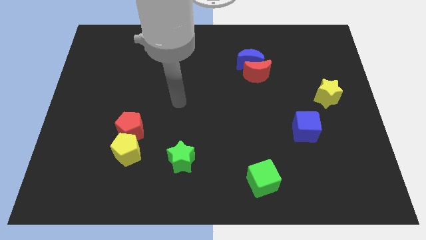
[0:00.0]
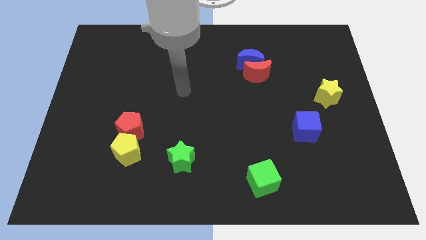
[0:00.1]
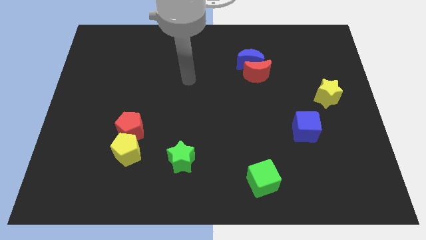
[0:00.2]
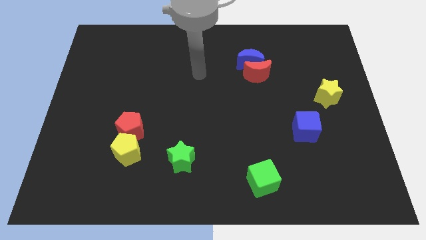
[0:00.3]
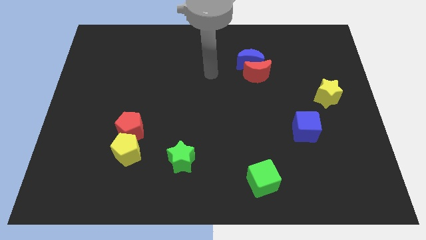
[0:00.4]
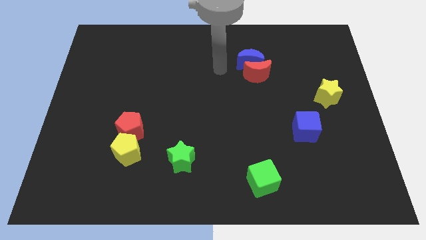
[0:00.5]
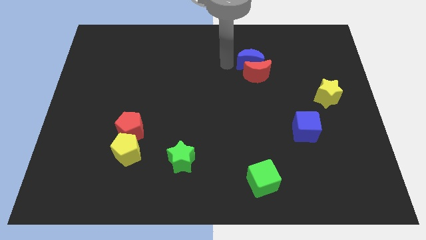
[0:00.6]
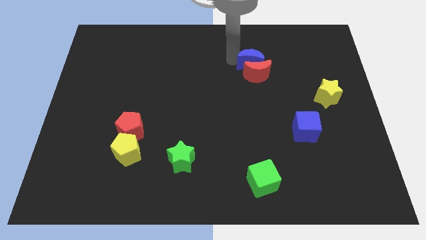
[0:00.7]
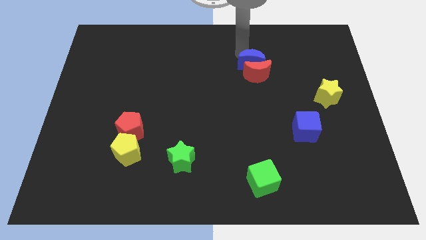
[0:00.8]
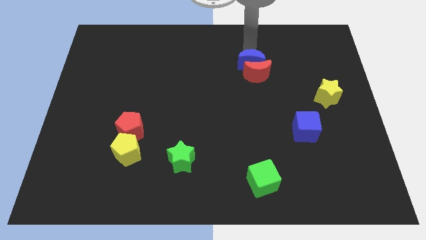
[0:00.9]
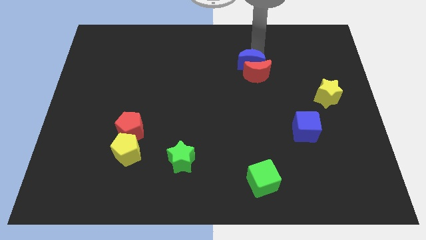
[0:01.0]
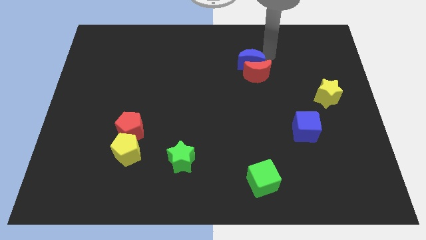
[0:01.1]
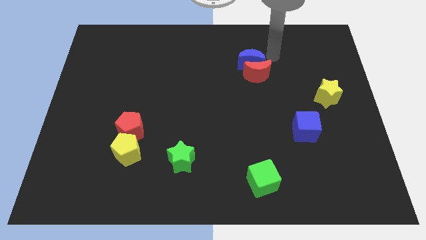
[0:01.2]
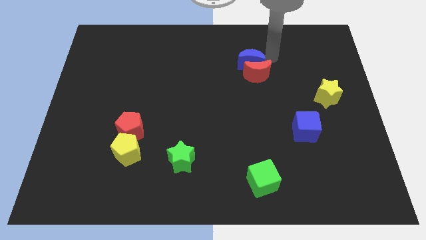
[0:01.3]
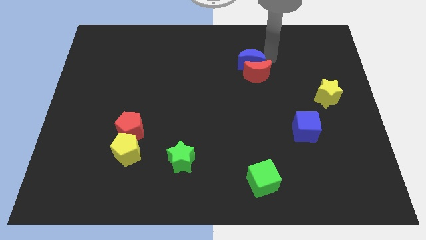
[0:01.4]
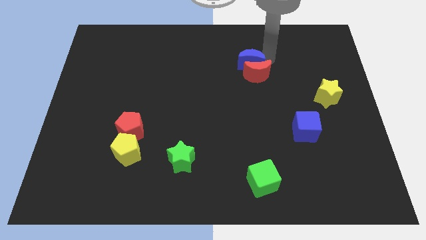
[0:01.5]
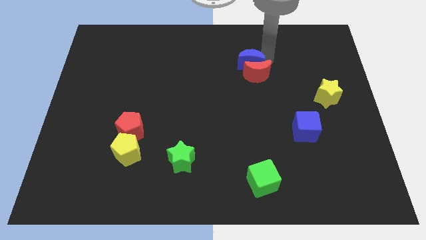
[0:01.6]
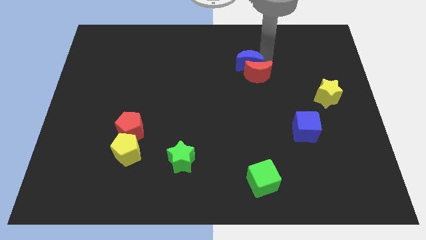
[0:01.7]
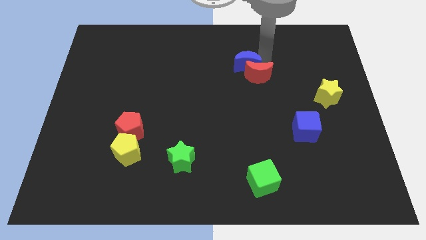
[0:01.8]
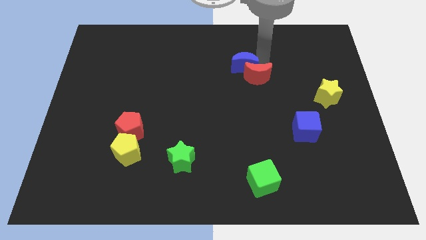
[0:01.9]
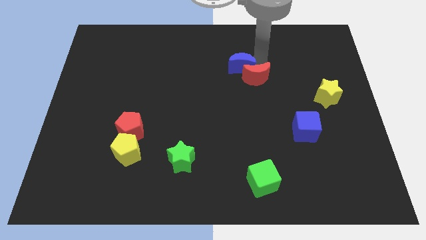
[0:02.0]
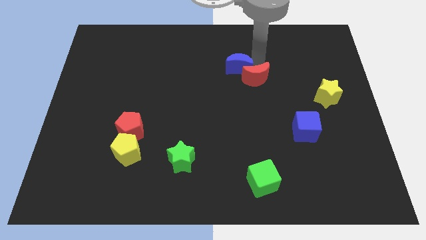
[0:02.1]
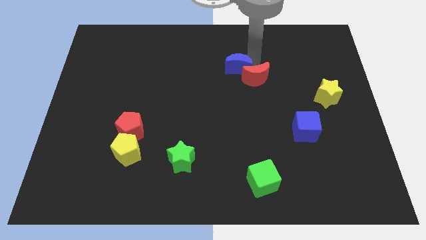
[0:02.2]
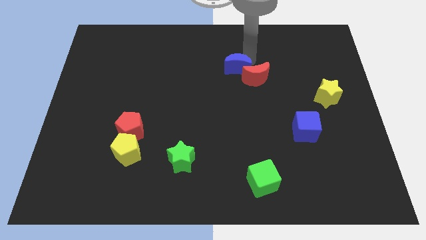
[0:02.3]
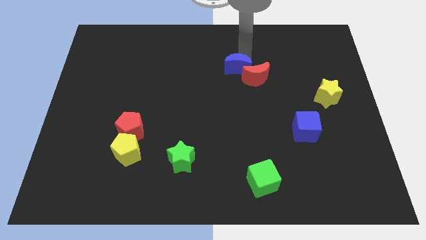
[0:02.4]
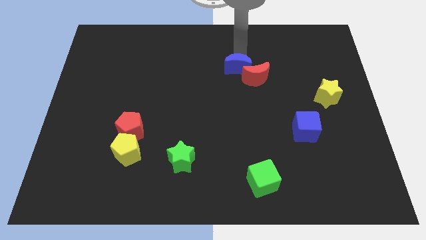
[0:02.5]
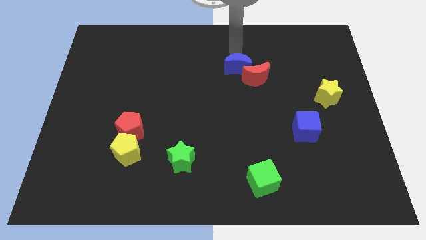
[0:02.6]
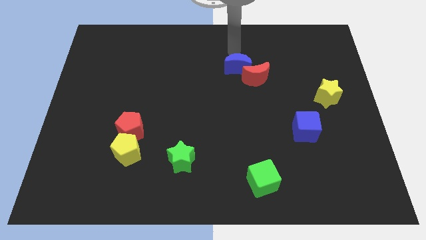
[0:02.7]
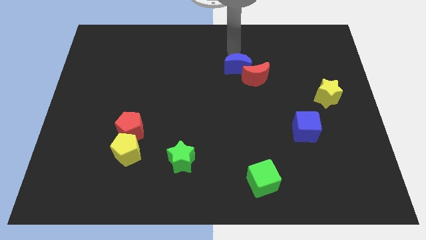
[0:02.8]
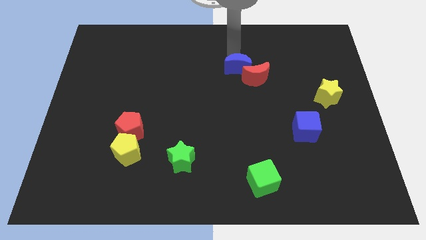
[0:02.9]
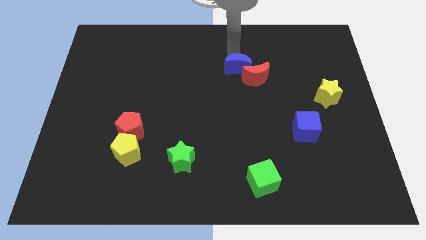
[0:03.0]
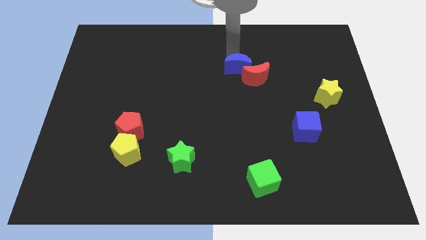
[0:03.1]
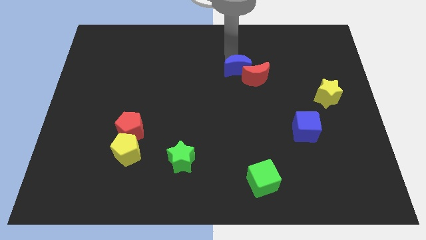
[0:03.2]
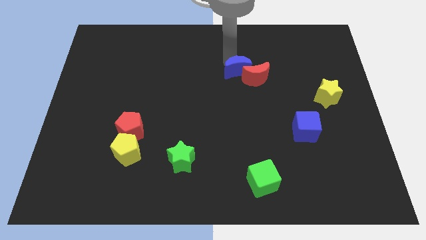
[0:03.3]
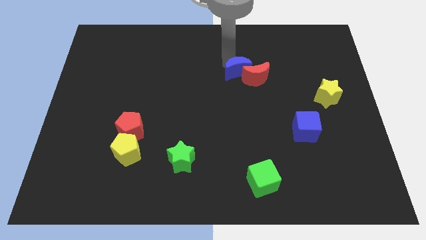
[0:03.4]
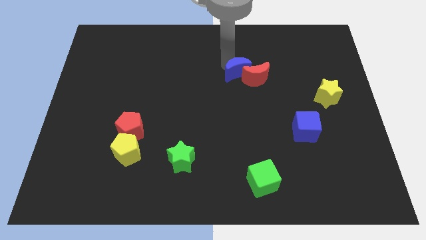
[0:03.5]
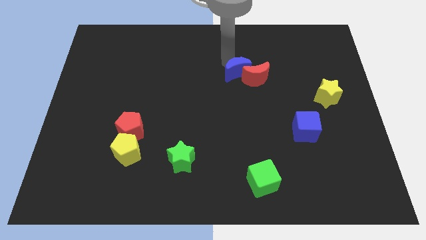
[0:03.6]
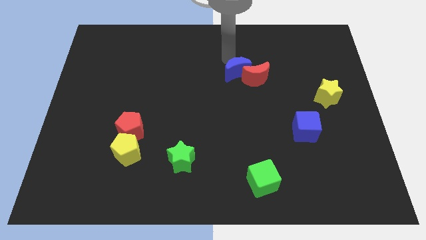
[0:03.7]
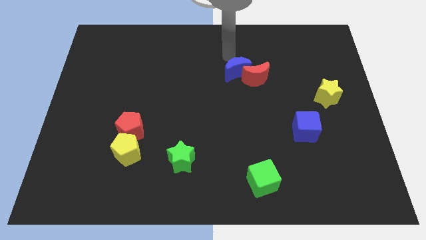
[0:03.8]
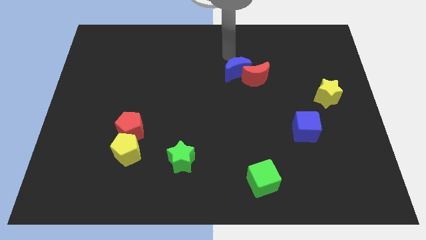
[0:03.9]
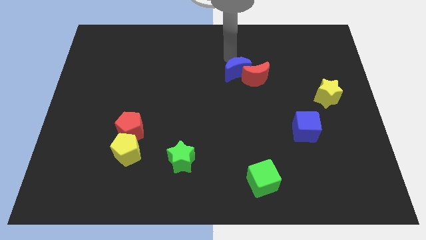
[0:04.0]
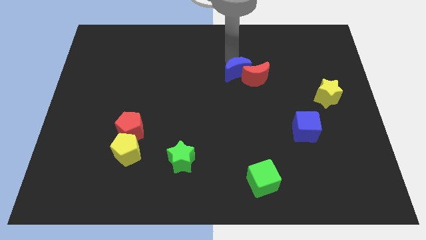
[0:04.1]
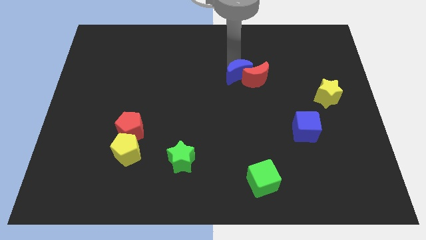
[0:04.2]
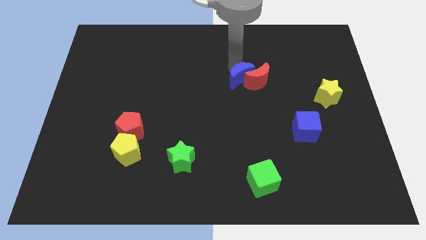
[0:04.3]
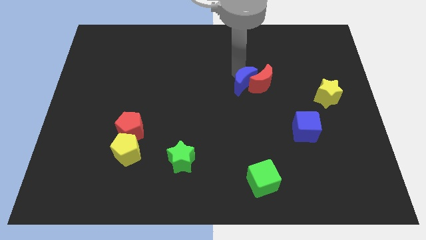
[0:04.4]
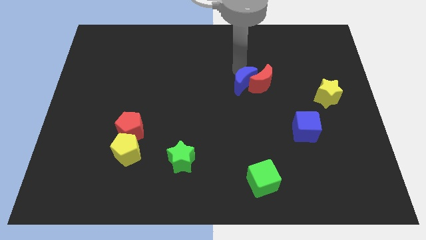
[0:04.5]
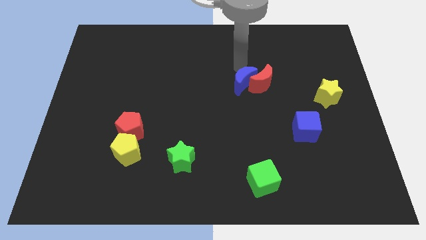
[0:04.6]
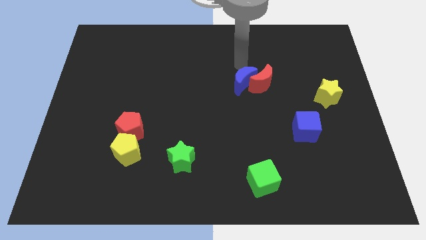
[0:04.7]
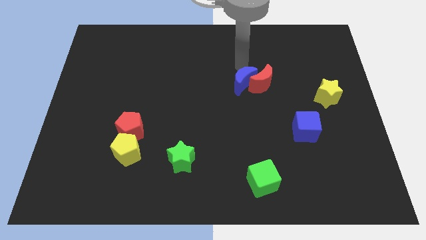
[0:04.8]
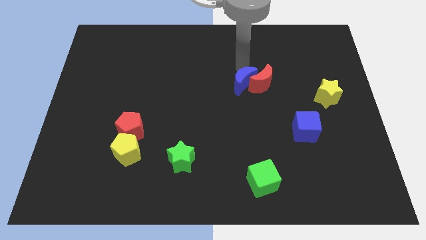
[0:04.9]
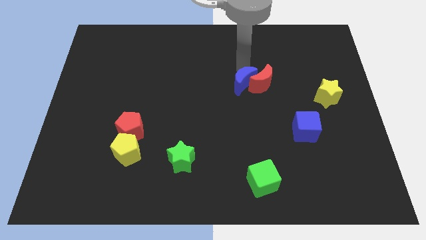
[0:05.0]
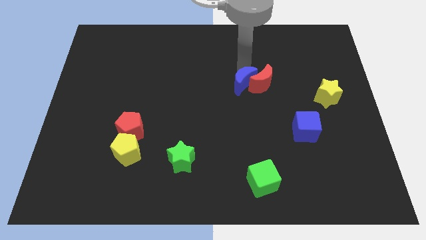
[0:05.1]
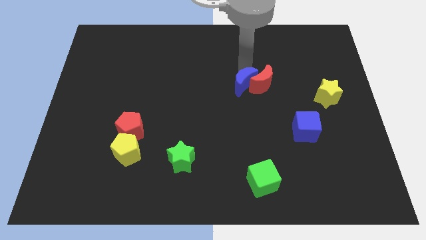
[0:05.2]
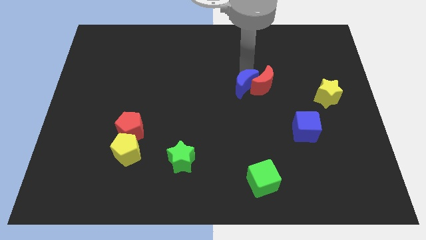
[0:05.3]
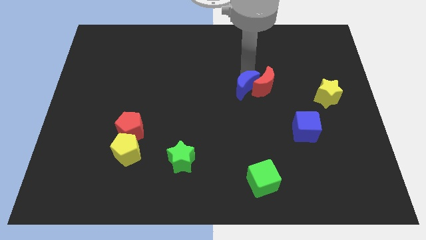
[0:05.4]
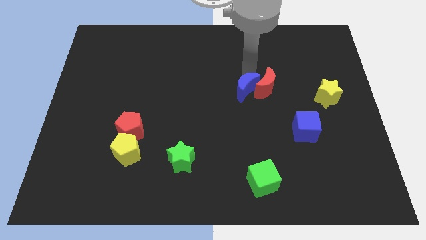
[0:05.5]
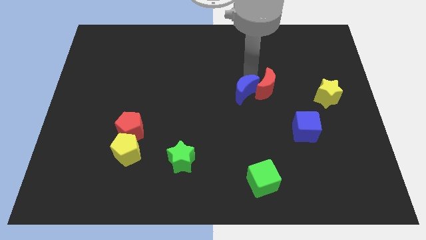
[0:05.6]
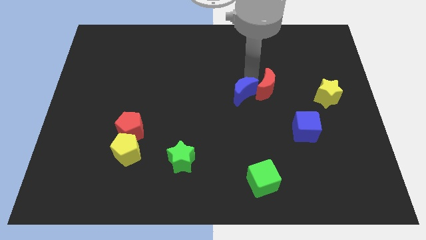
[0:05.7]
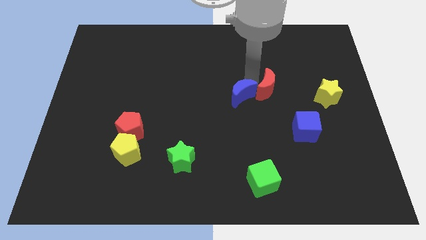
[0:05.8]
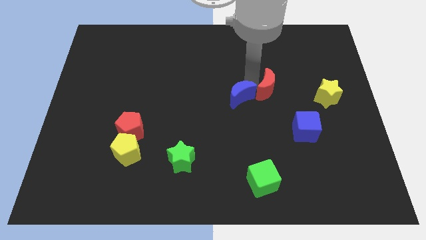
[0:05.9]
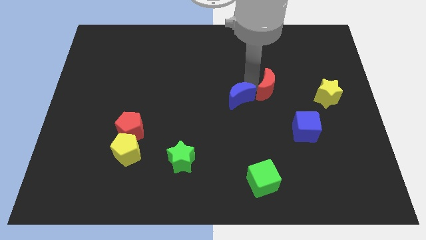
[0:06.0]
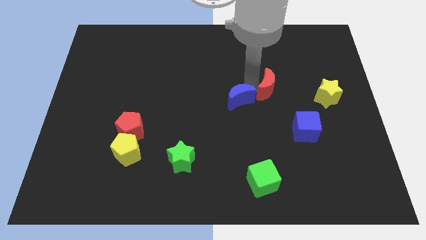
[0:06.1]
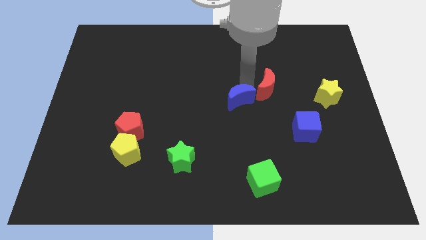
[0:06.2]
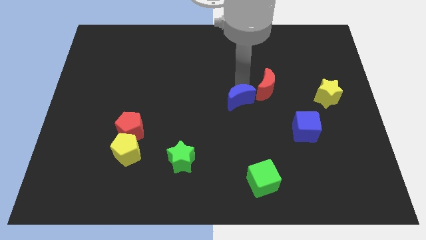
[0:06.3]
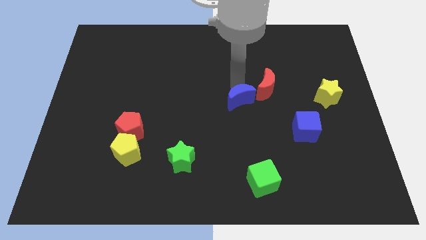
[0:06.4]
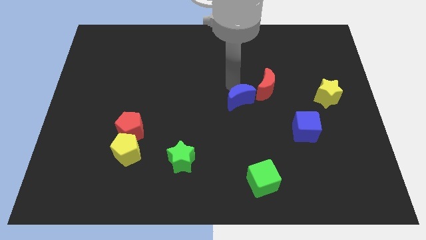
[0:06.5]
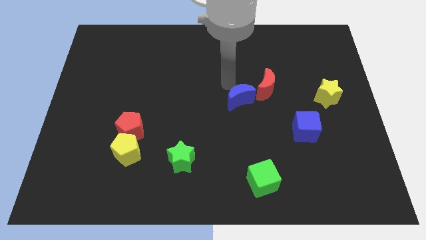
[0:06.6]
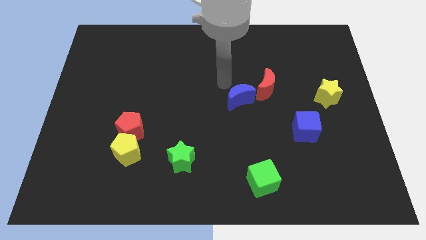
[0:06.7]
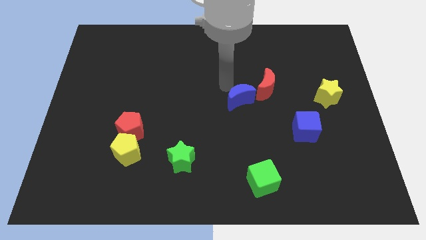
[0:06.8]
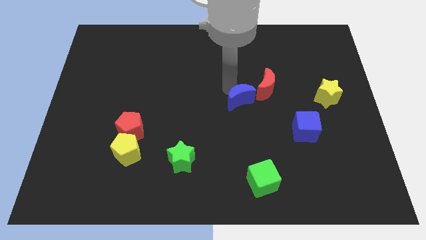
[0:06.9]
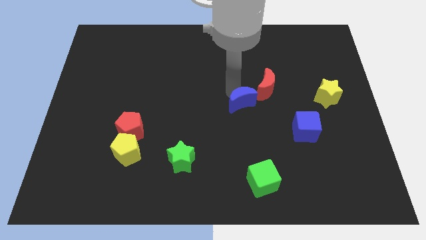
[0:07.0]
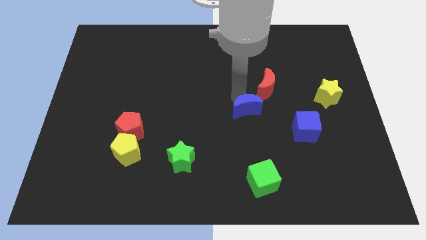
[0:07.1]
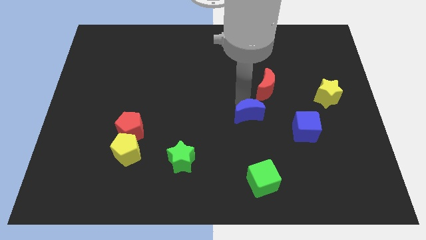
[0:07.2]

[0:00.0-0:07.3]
slide the blue moon left of the blue cube

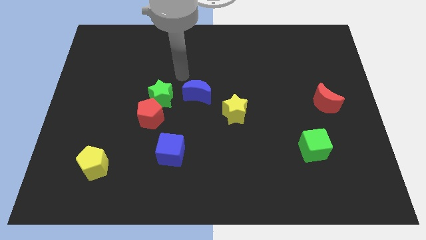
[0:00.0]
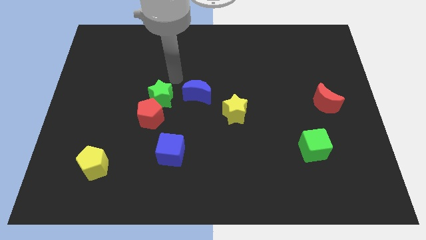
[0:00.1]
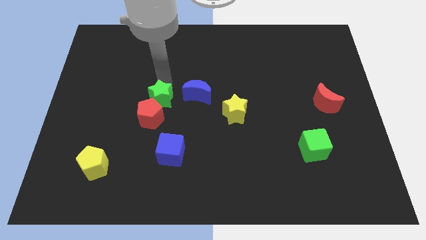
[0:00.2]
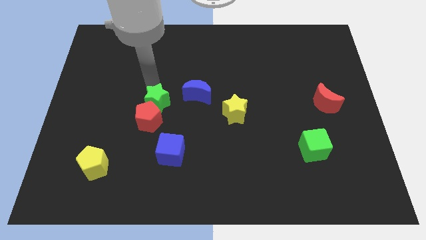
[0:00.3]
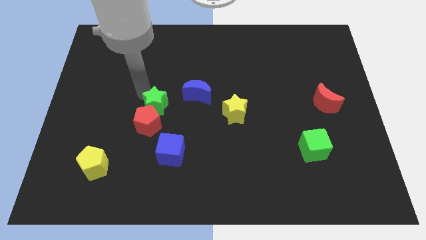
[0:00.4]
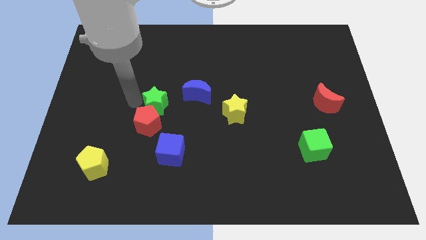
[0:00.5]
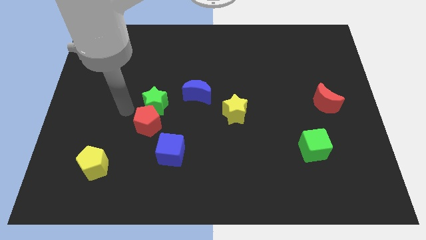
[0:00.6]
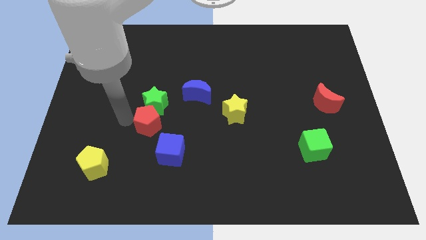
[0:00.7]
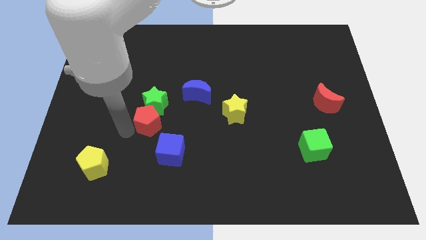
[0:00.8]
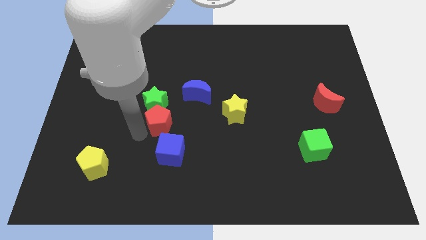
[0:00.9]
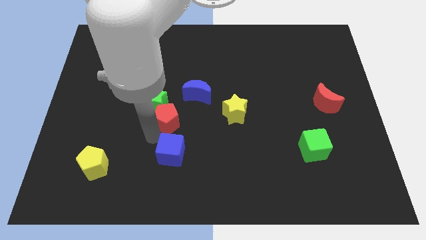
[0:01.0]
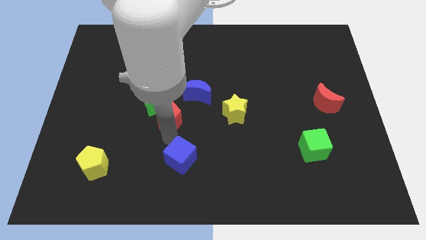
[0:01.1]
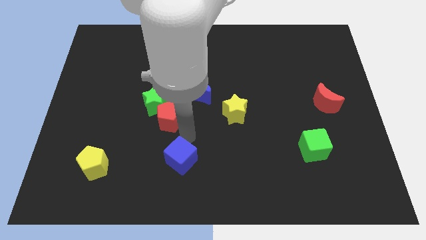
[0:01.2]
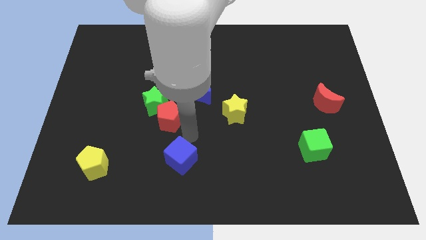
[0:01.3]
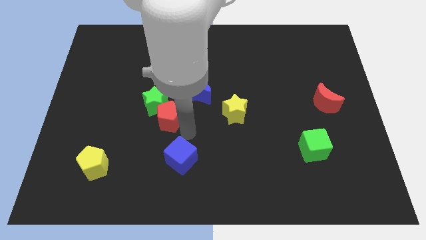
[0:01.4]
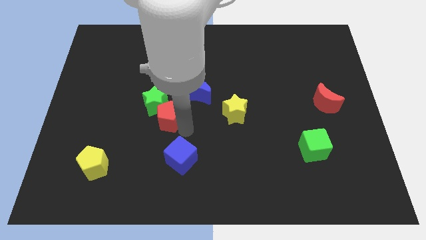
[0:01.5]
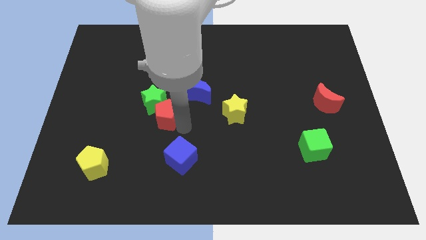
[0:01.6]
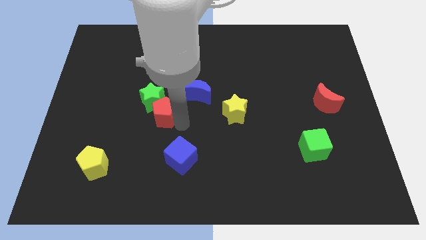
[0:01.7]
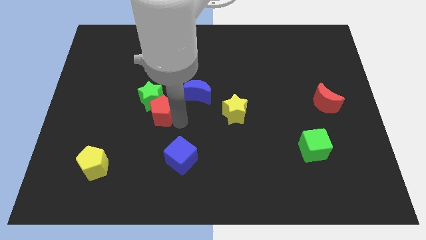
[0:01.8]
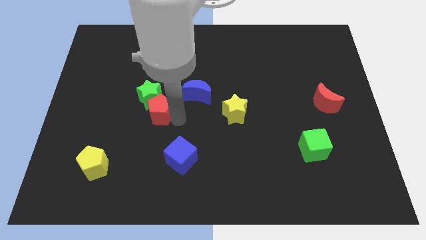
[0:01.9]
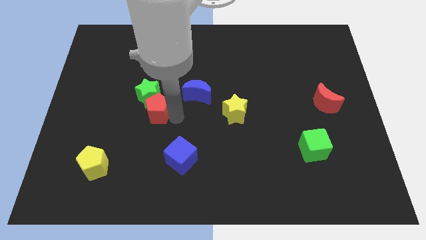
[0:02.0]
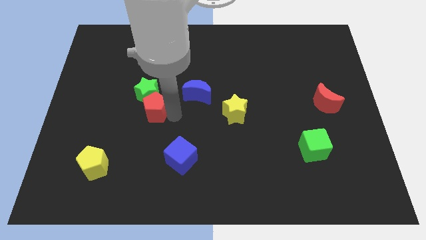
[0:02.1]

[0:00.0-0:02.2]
slide the red pentagon to the left of the blue moon
